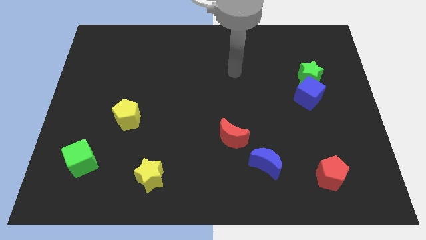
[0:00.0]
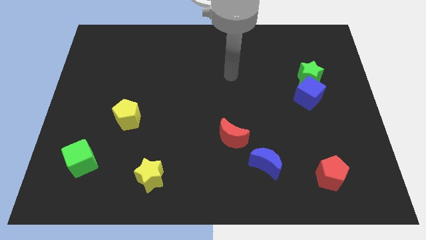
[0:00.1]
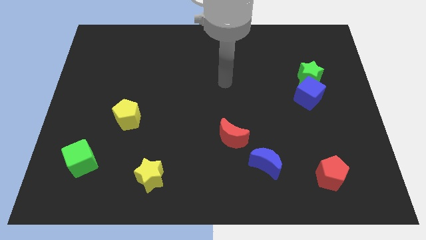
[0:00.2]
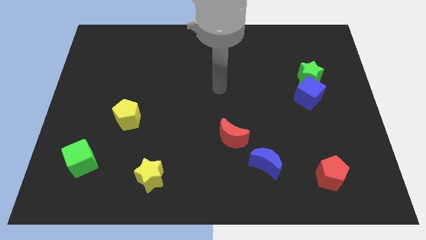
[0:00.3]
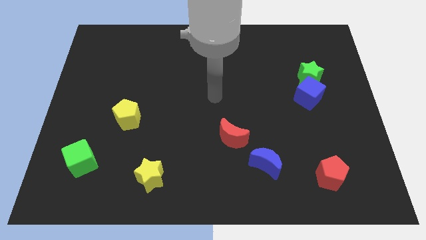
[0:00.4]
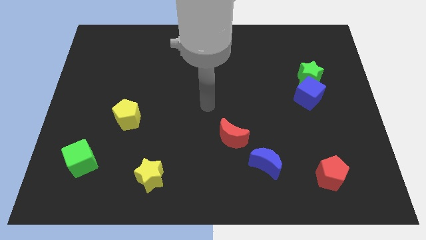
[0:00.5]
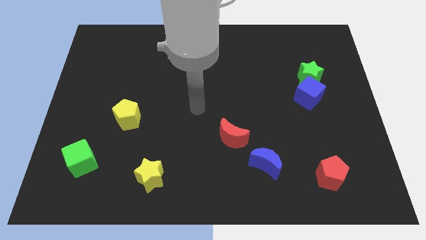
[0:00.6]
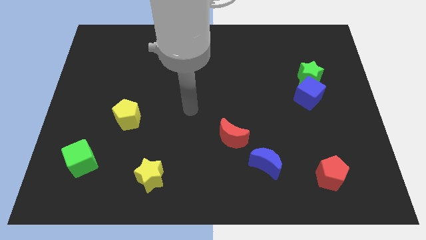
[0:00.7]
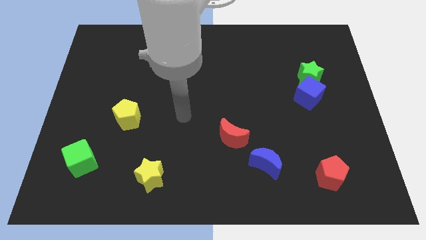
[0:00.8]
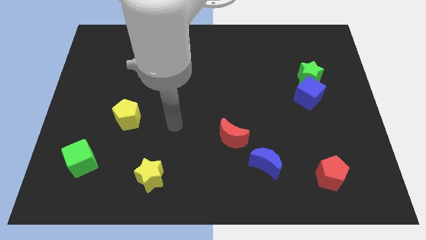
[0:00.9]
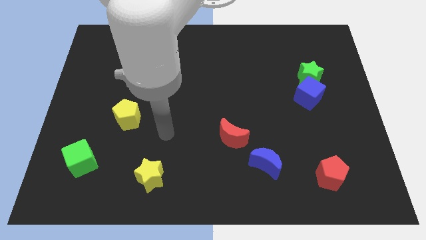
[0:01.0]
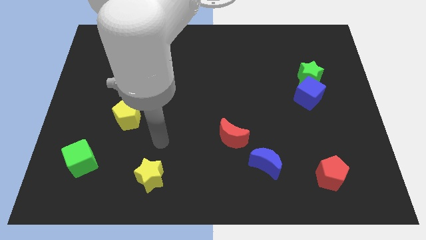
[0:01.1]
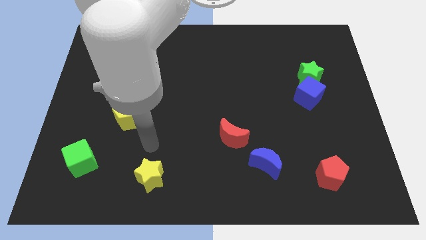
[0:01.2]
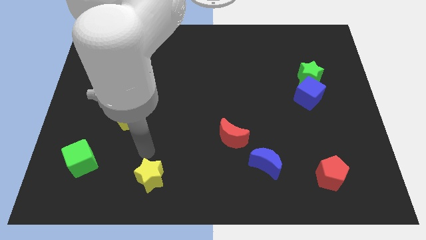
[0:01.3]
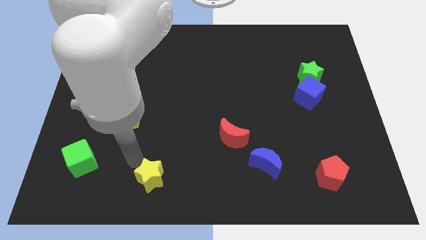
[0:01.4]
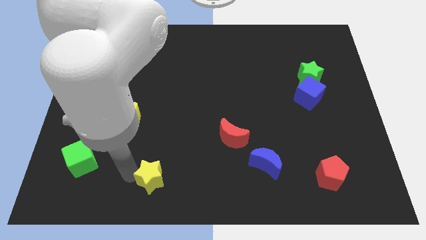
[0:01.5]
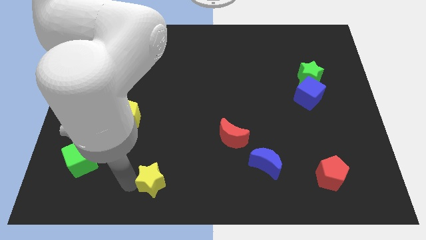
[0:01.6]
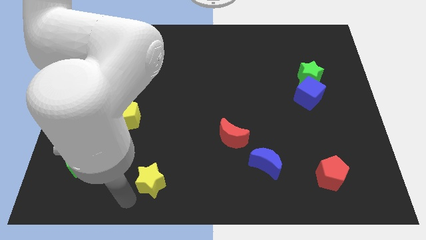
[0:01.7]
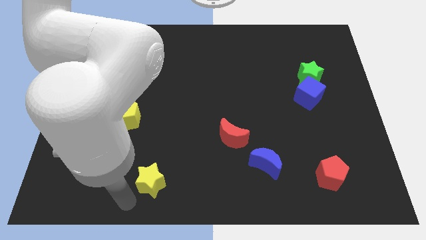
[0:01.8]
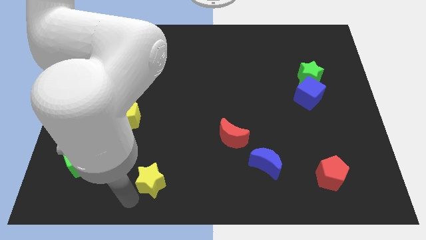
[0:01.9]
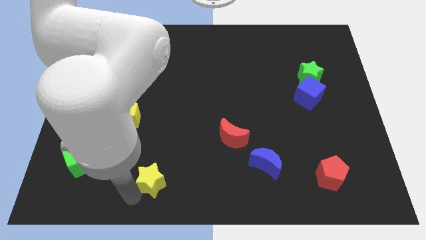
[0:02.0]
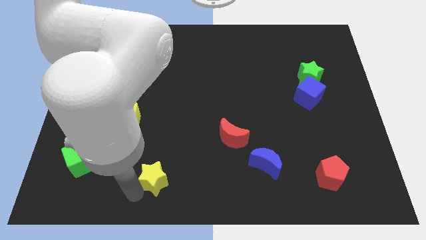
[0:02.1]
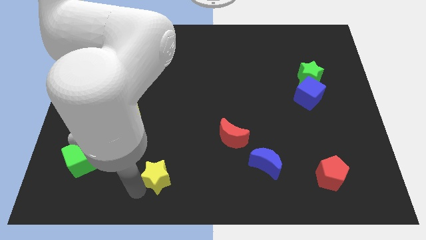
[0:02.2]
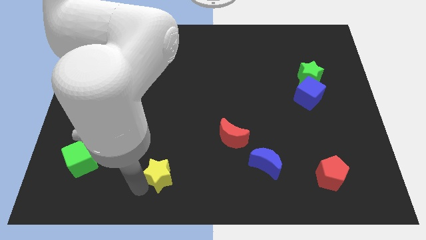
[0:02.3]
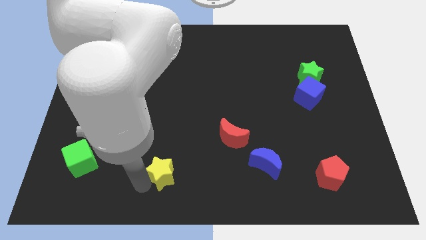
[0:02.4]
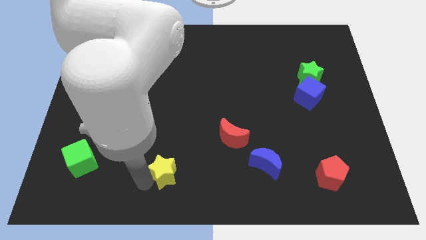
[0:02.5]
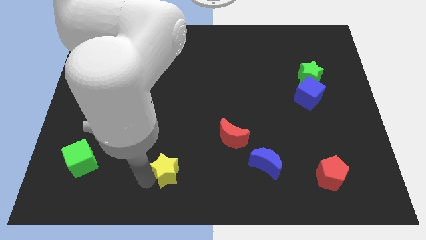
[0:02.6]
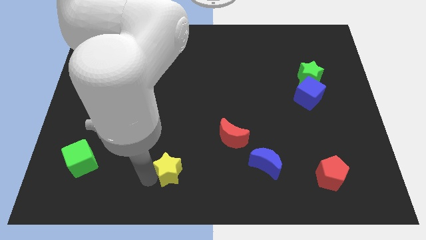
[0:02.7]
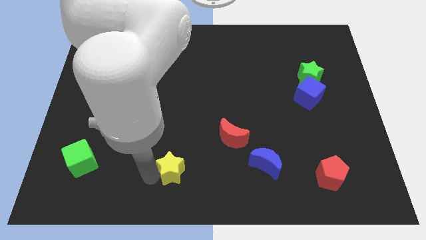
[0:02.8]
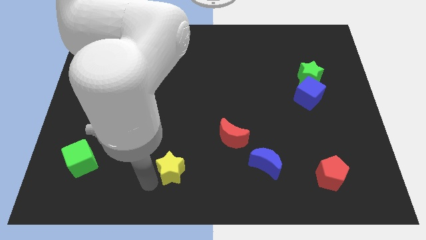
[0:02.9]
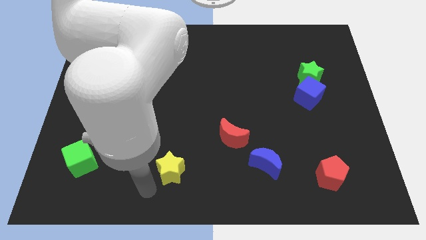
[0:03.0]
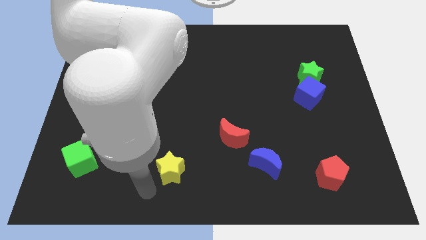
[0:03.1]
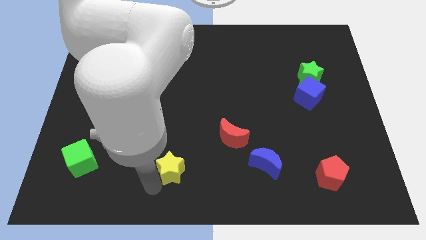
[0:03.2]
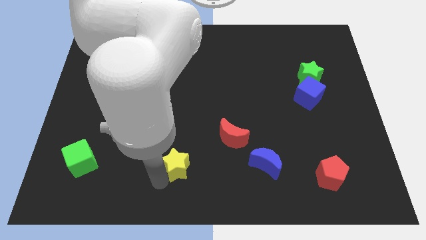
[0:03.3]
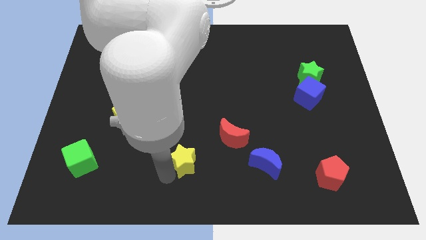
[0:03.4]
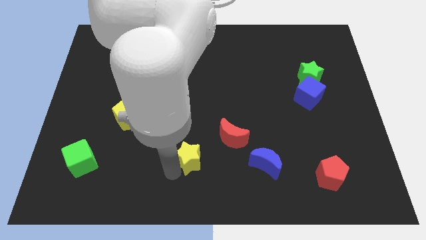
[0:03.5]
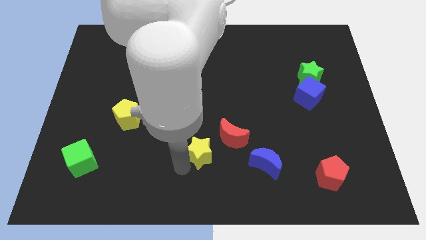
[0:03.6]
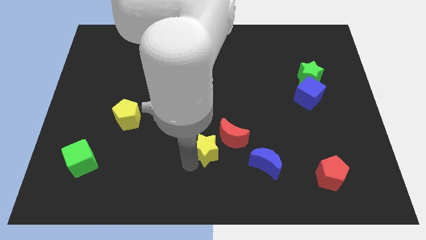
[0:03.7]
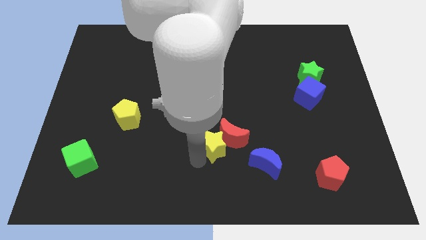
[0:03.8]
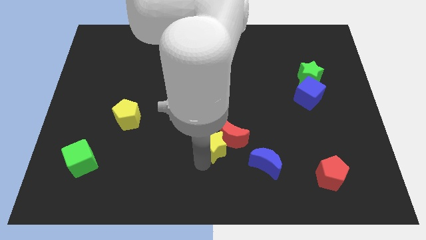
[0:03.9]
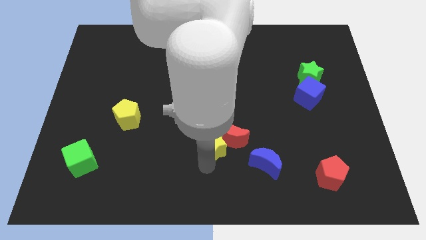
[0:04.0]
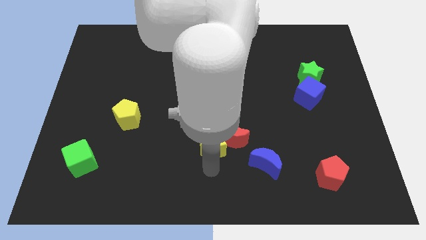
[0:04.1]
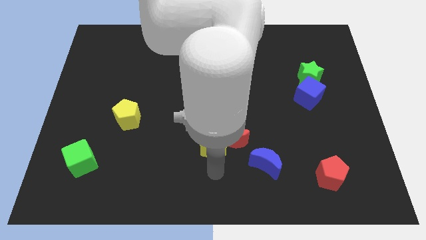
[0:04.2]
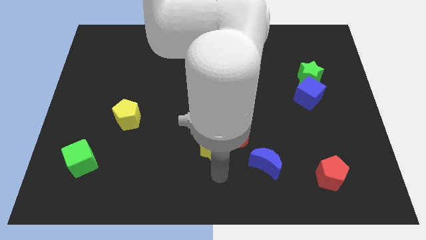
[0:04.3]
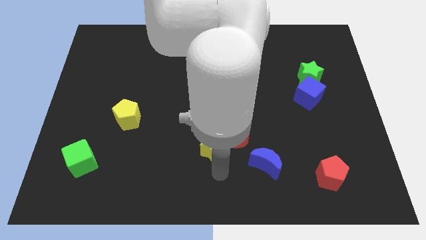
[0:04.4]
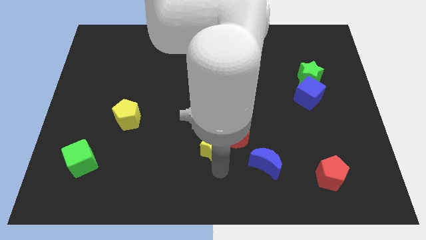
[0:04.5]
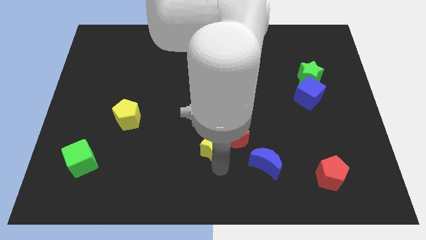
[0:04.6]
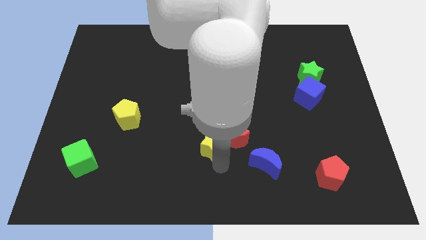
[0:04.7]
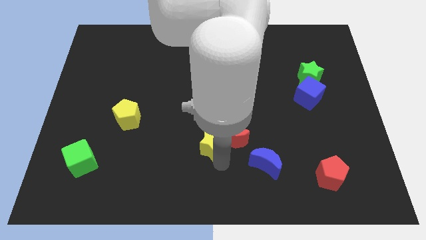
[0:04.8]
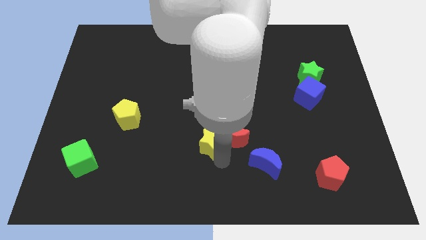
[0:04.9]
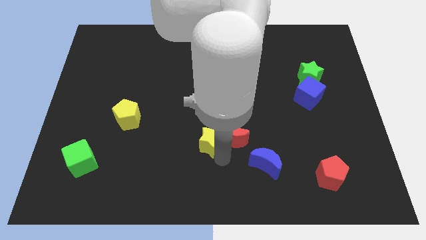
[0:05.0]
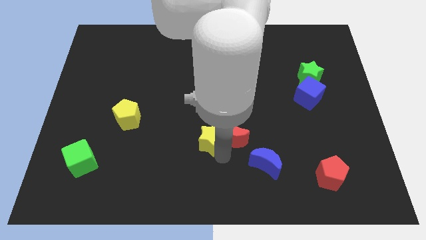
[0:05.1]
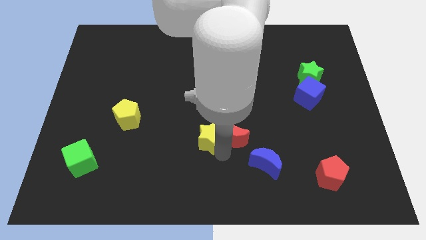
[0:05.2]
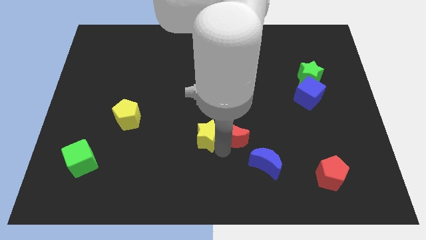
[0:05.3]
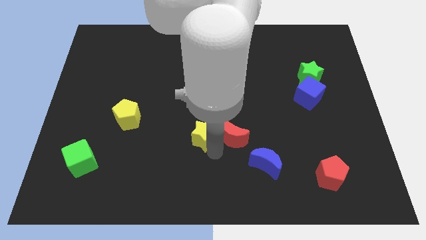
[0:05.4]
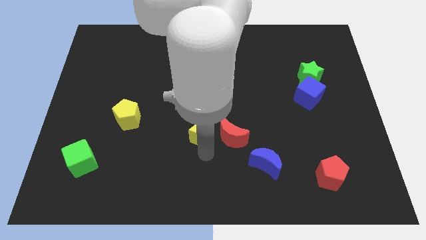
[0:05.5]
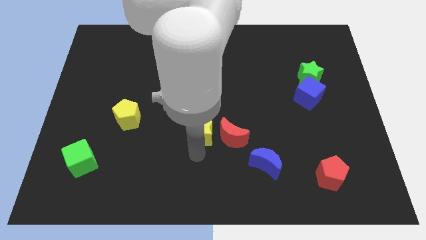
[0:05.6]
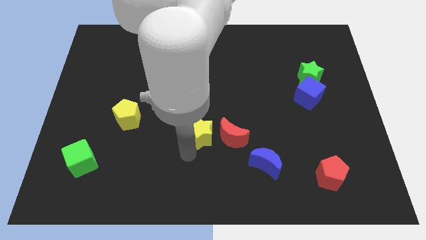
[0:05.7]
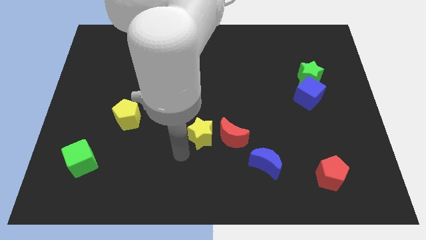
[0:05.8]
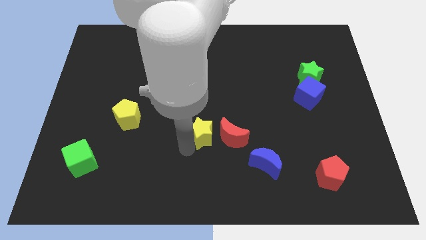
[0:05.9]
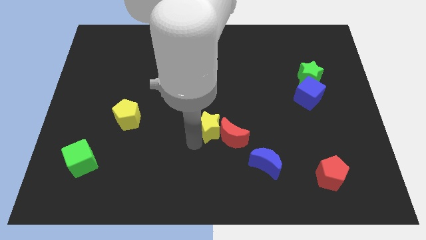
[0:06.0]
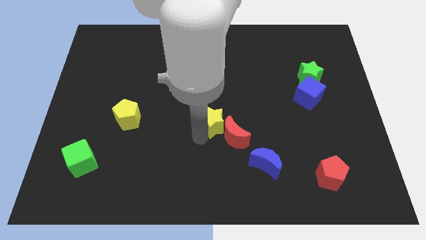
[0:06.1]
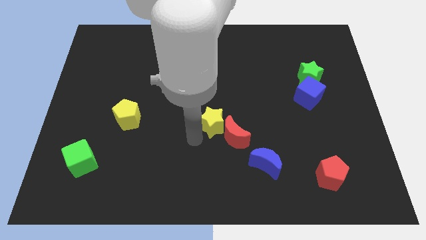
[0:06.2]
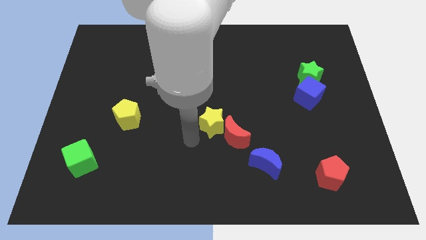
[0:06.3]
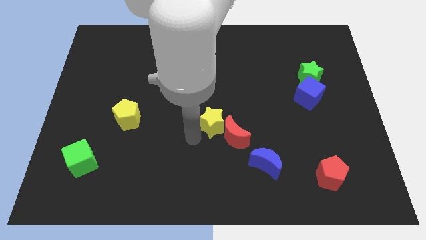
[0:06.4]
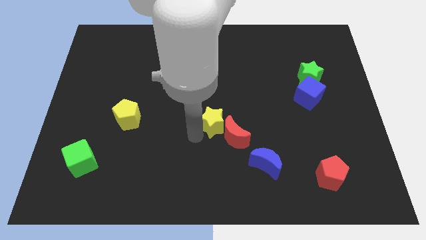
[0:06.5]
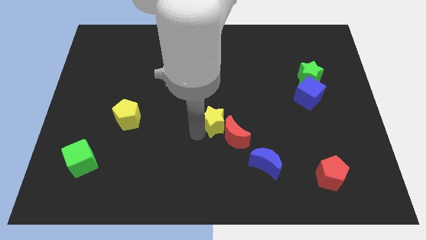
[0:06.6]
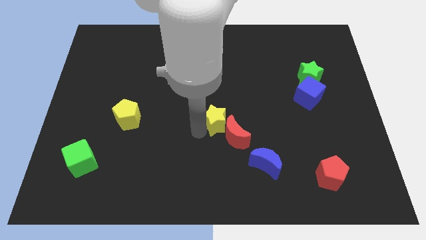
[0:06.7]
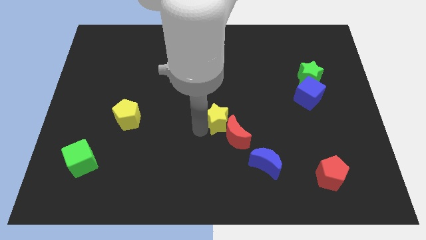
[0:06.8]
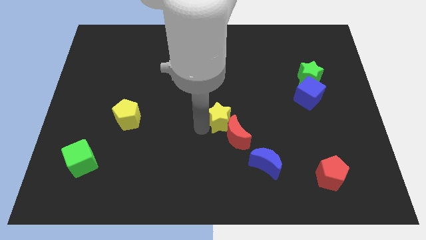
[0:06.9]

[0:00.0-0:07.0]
push the yellow star upwards and right diagonally

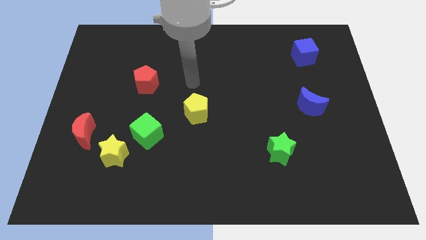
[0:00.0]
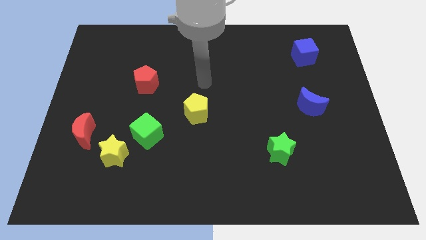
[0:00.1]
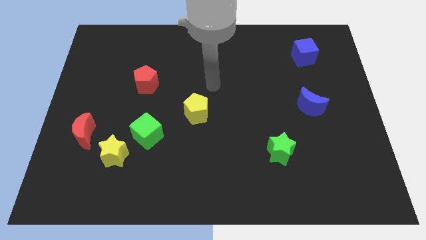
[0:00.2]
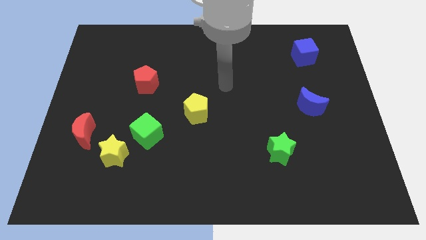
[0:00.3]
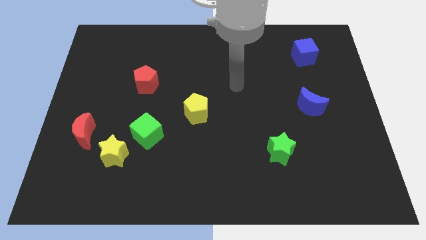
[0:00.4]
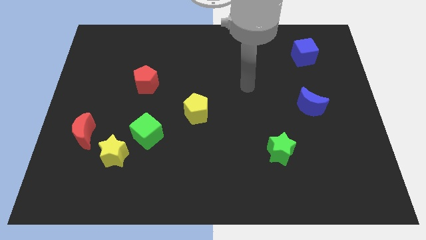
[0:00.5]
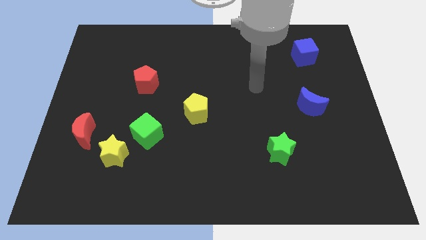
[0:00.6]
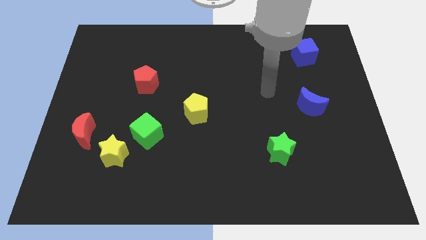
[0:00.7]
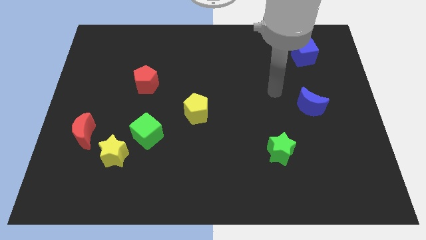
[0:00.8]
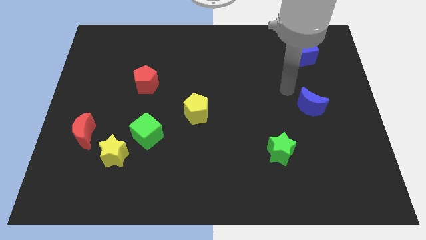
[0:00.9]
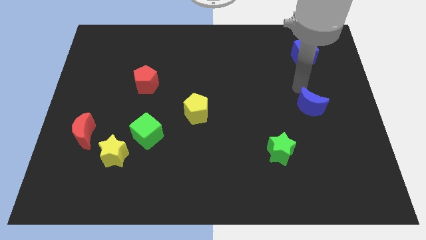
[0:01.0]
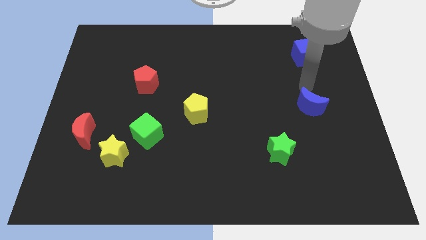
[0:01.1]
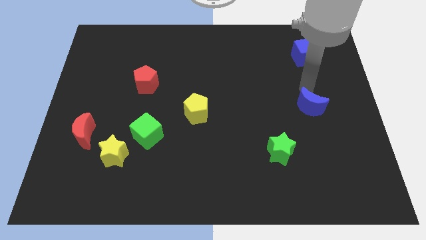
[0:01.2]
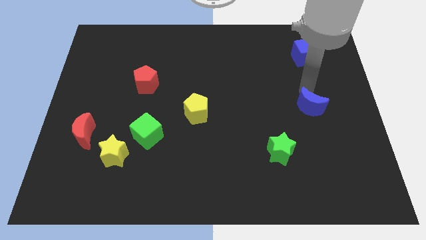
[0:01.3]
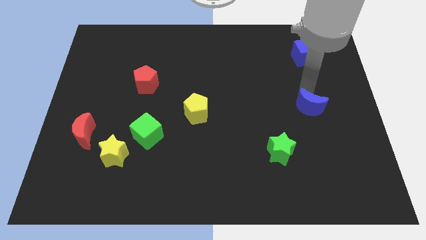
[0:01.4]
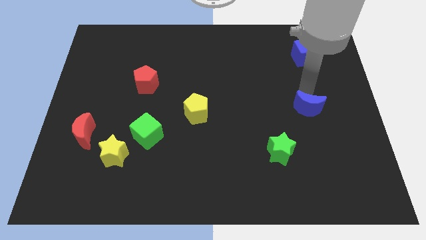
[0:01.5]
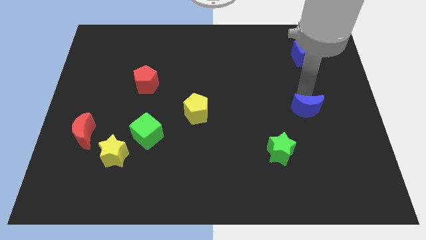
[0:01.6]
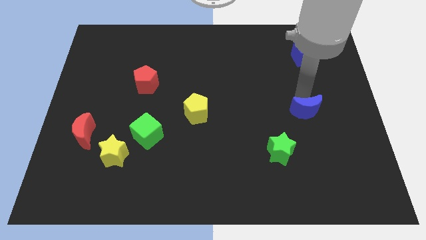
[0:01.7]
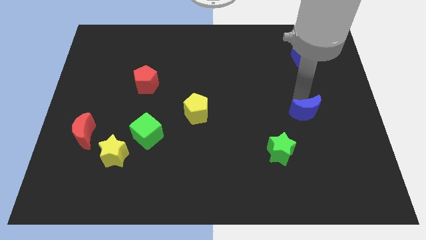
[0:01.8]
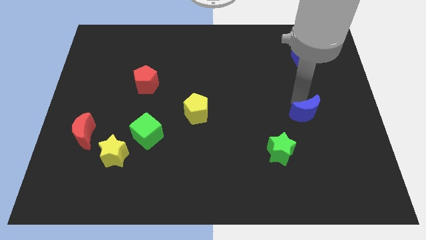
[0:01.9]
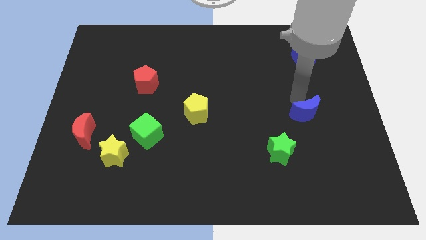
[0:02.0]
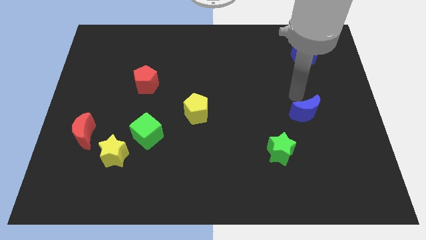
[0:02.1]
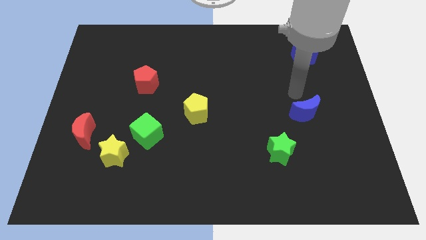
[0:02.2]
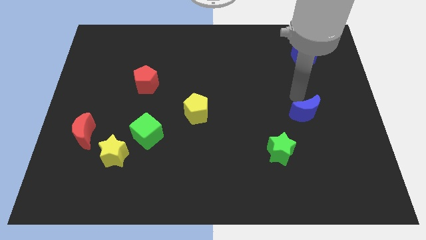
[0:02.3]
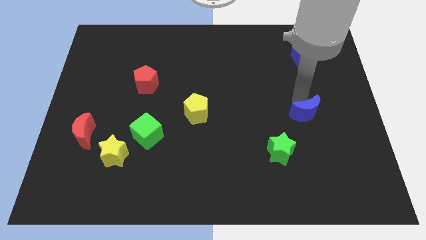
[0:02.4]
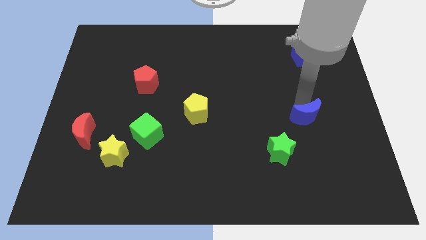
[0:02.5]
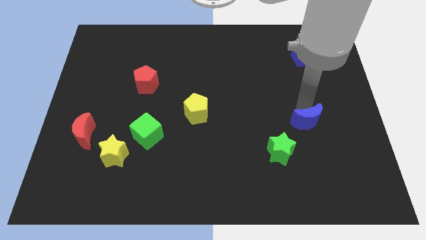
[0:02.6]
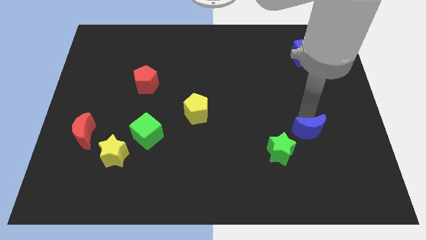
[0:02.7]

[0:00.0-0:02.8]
slightly slide the blue moon downwards
